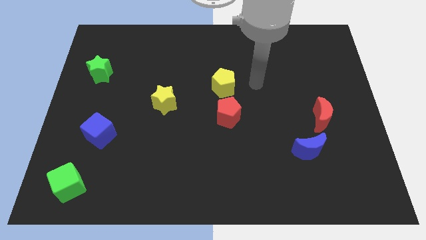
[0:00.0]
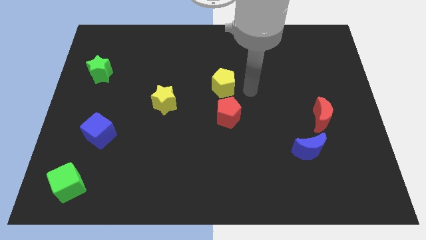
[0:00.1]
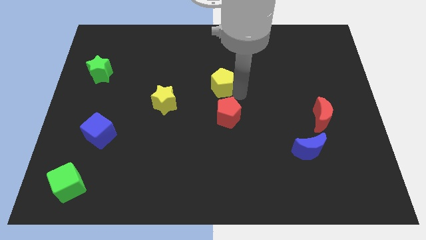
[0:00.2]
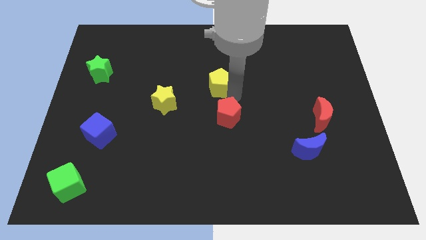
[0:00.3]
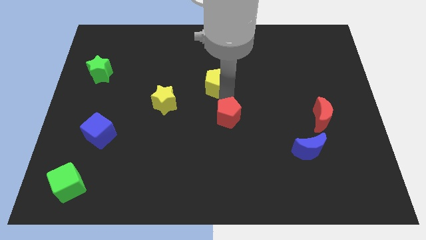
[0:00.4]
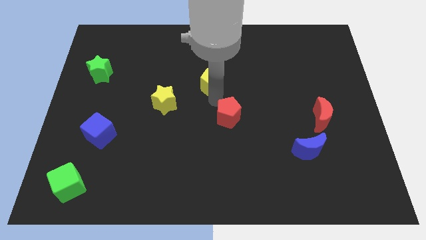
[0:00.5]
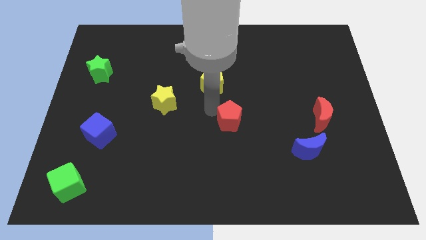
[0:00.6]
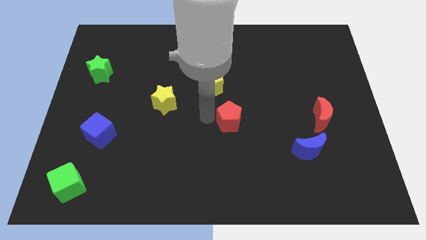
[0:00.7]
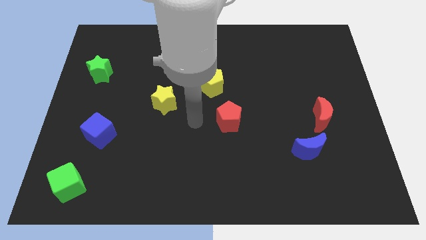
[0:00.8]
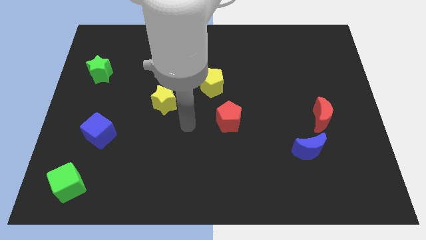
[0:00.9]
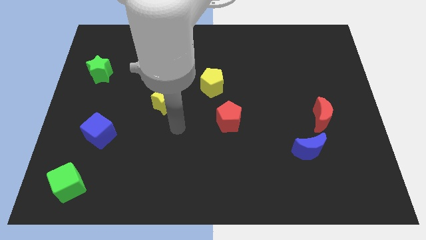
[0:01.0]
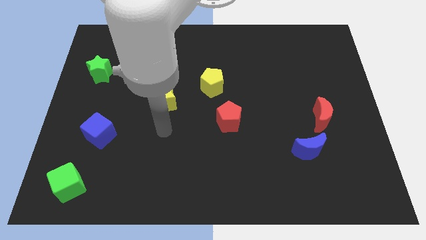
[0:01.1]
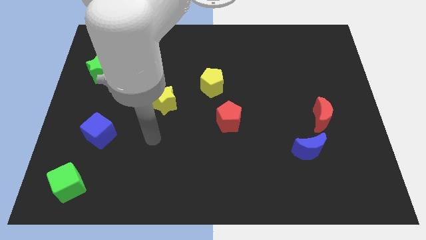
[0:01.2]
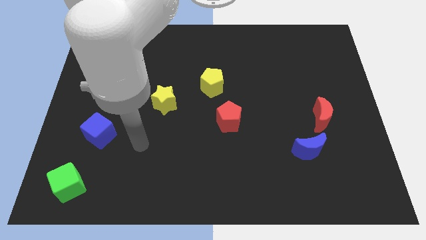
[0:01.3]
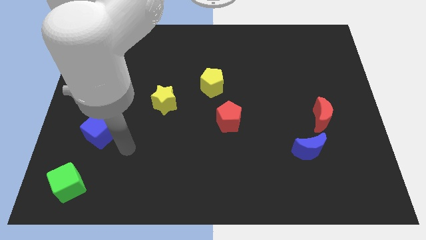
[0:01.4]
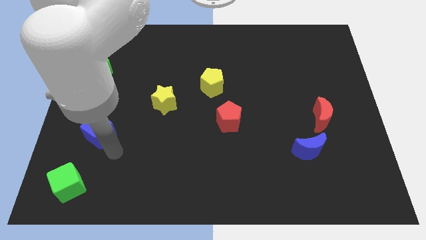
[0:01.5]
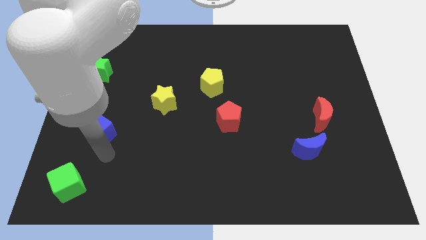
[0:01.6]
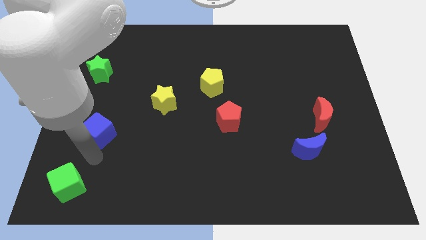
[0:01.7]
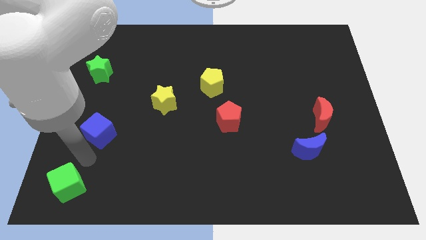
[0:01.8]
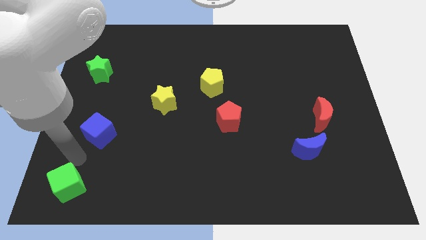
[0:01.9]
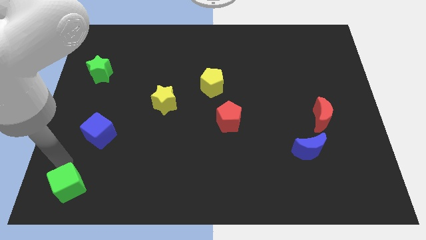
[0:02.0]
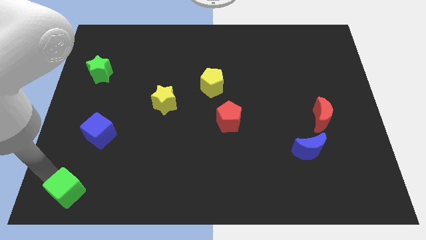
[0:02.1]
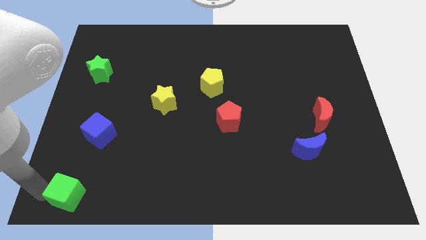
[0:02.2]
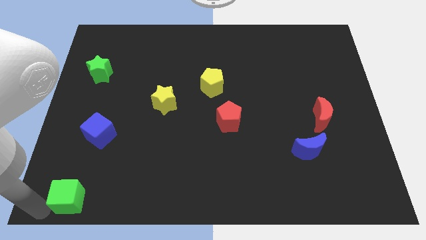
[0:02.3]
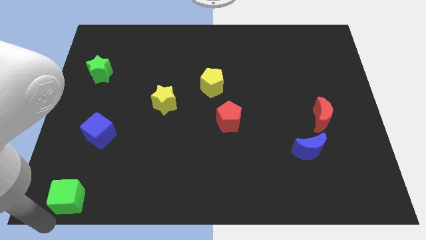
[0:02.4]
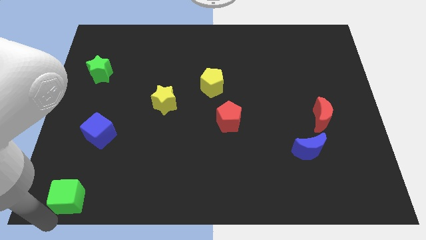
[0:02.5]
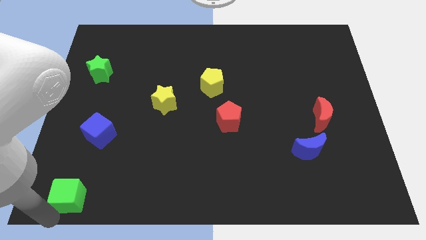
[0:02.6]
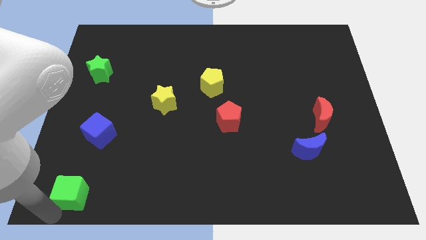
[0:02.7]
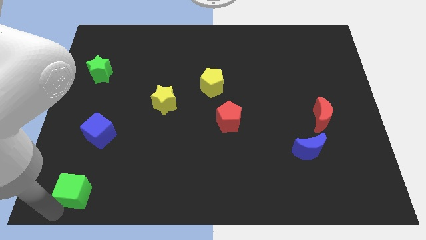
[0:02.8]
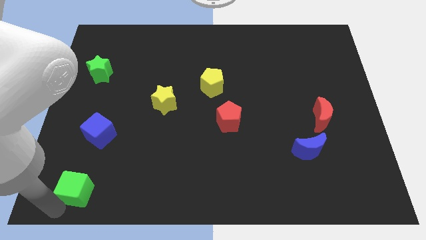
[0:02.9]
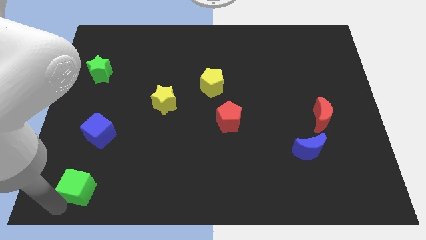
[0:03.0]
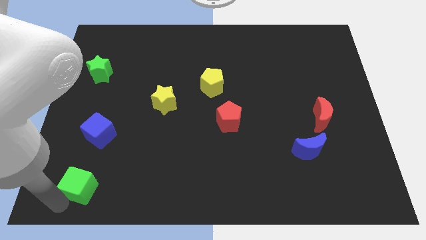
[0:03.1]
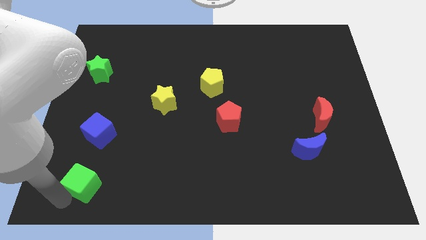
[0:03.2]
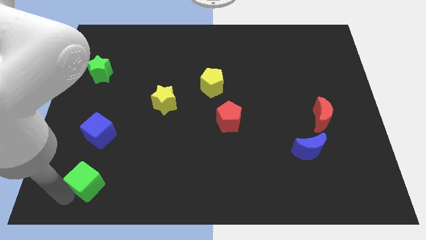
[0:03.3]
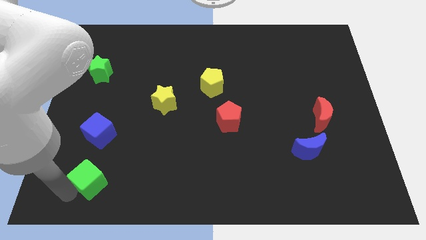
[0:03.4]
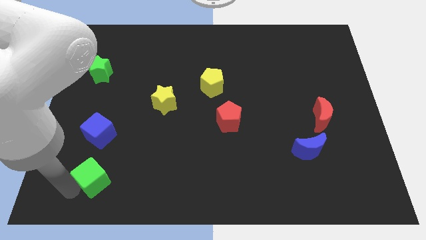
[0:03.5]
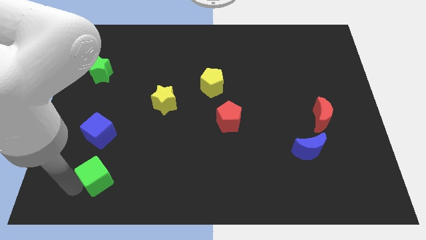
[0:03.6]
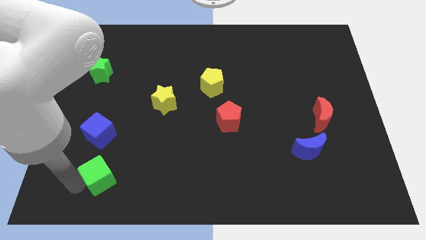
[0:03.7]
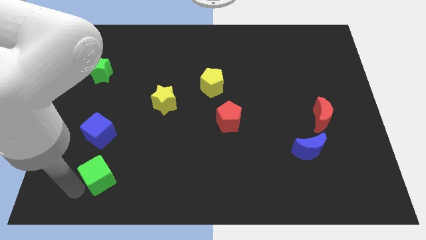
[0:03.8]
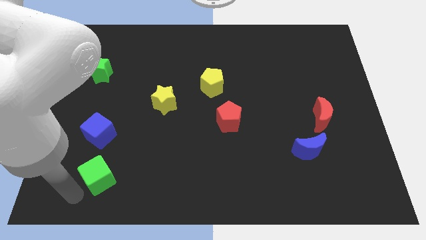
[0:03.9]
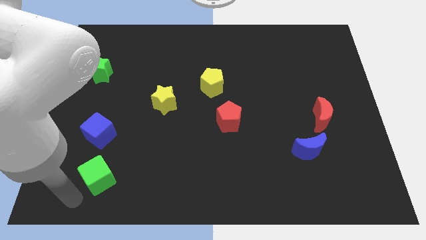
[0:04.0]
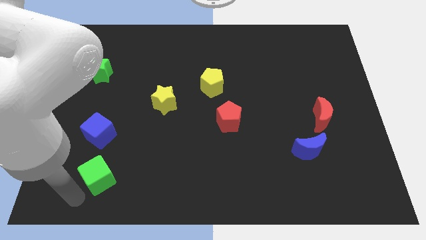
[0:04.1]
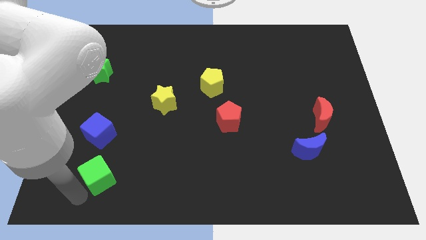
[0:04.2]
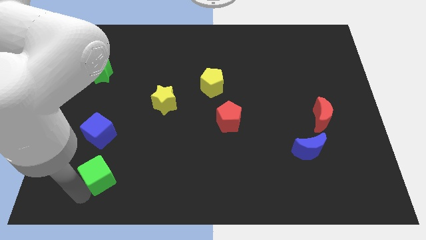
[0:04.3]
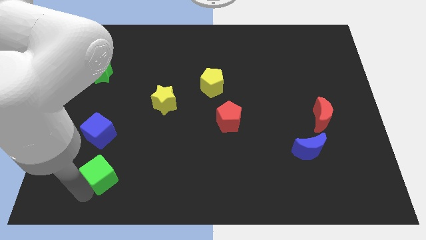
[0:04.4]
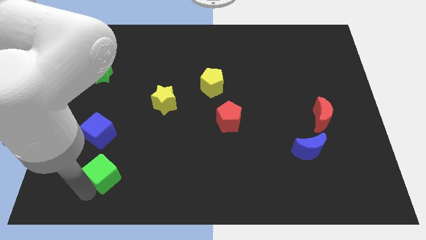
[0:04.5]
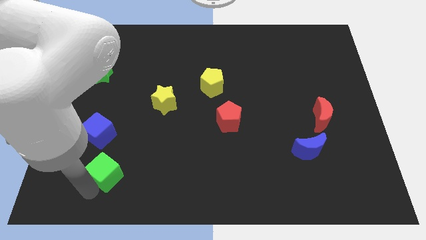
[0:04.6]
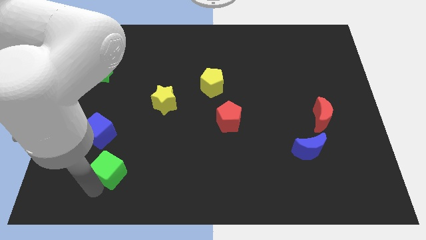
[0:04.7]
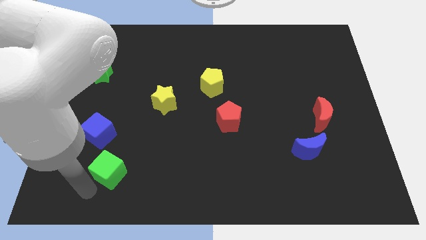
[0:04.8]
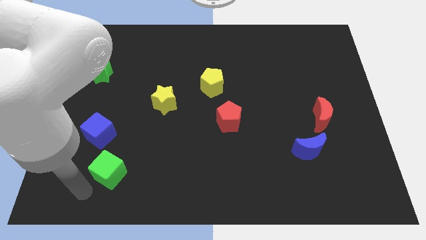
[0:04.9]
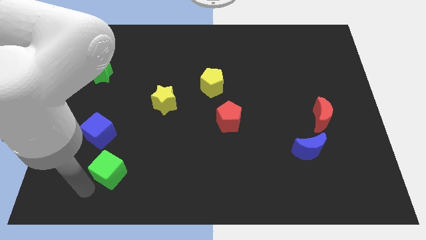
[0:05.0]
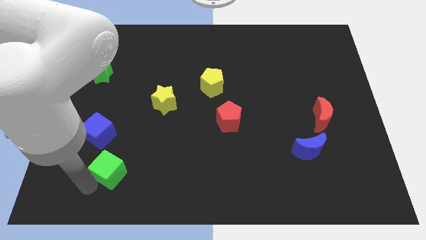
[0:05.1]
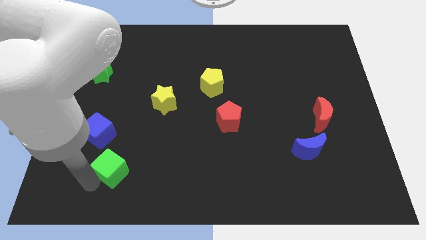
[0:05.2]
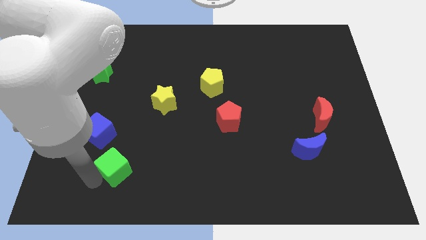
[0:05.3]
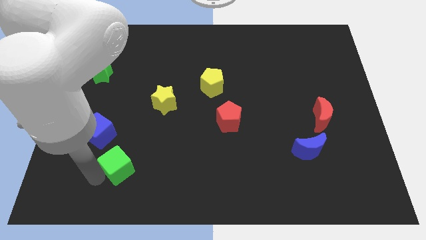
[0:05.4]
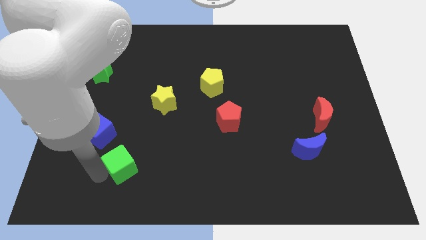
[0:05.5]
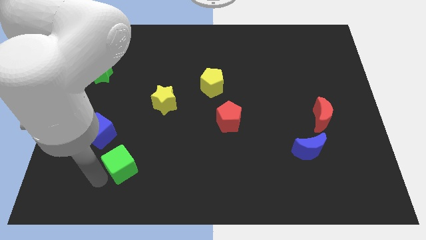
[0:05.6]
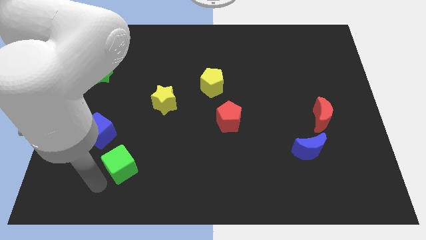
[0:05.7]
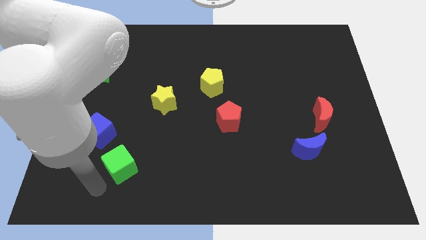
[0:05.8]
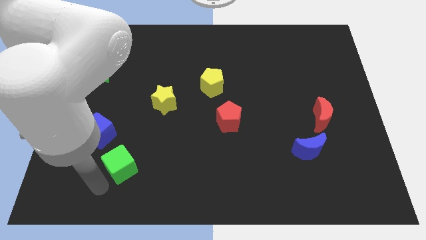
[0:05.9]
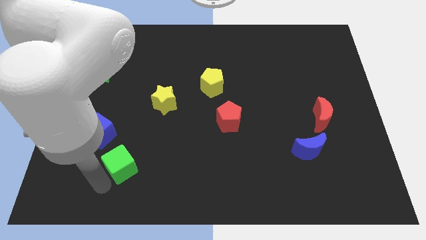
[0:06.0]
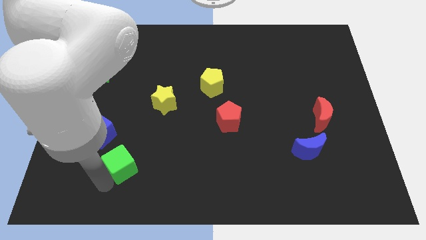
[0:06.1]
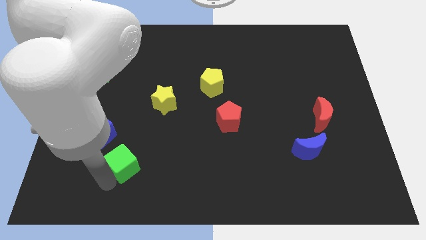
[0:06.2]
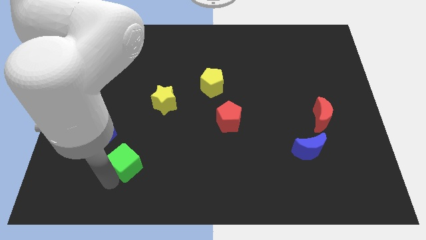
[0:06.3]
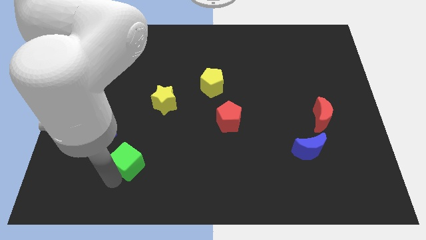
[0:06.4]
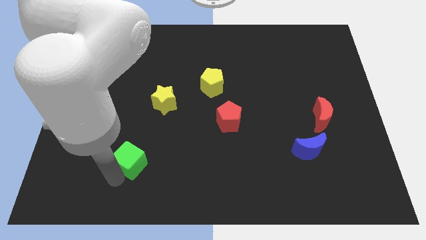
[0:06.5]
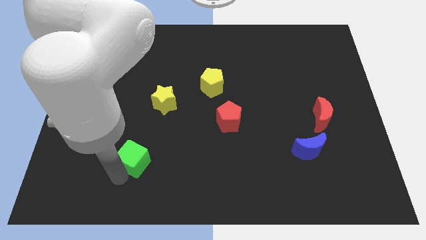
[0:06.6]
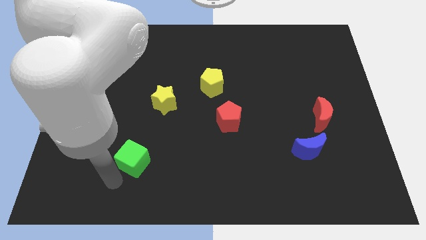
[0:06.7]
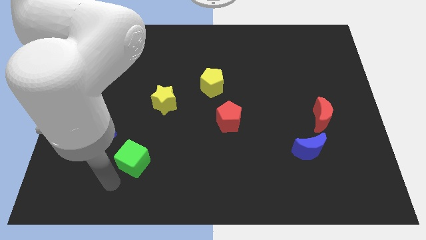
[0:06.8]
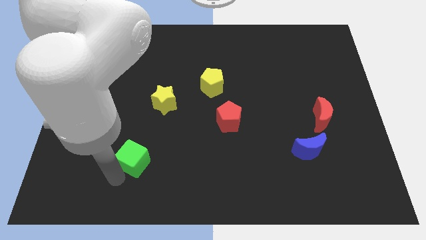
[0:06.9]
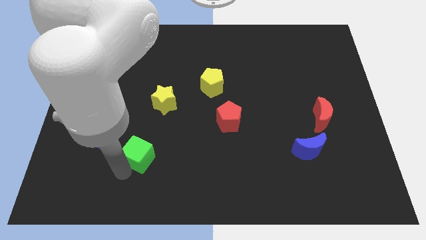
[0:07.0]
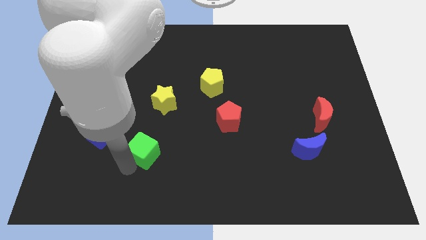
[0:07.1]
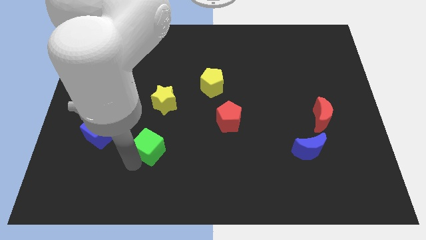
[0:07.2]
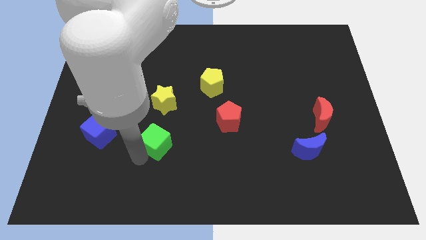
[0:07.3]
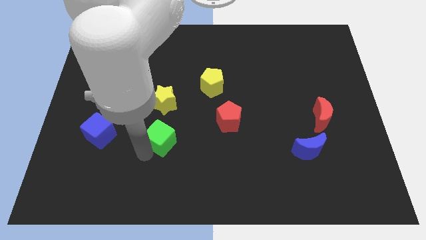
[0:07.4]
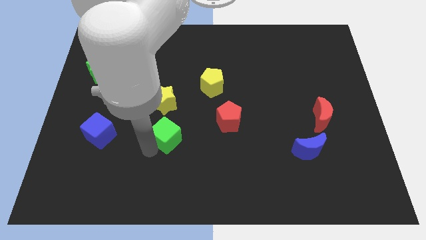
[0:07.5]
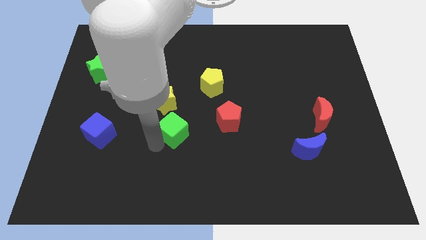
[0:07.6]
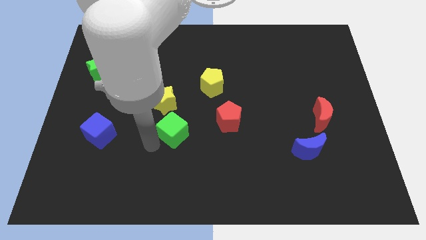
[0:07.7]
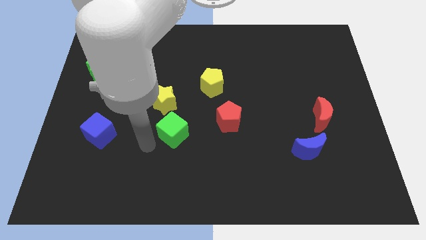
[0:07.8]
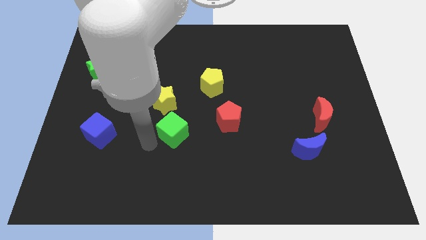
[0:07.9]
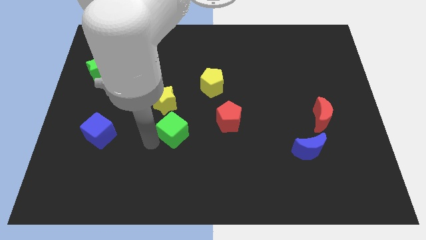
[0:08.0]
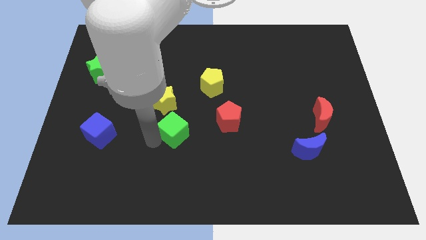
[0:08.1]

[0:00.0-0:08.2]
move the green cube to the center
